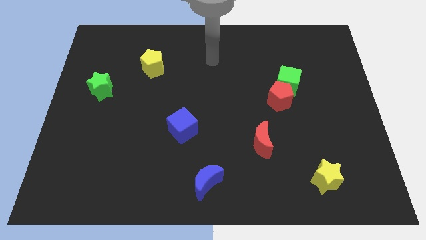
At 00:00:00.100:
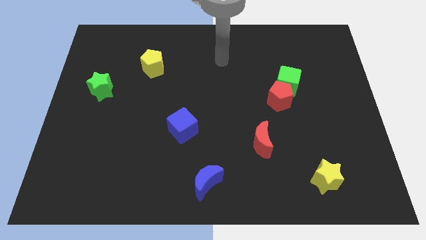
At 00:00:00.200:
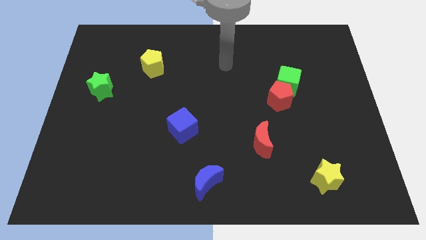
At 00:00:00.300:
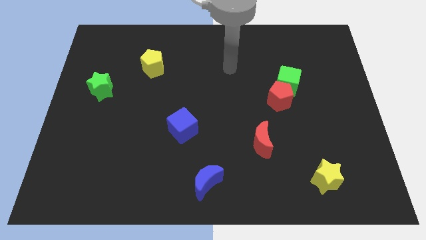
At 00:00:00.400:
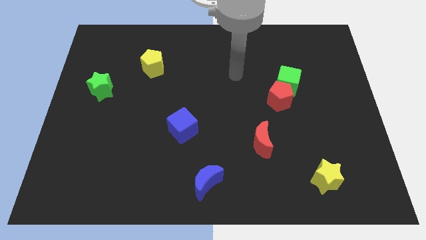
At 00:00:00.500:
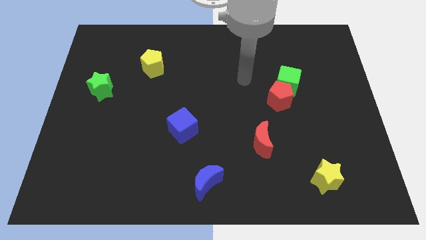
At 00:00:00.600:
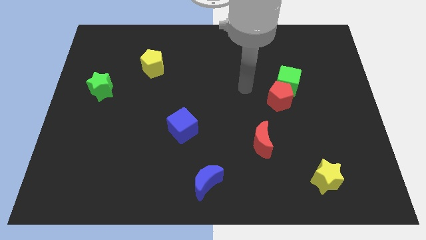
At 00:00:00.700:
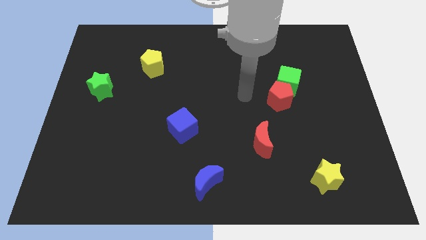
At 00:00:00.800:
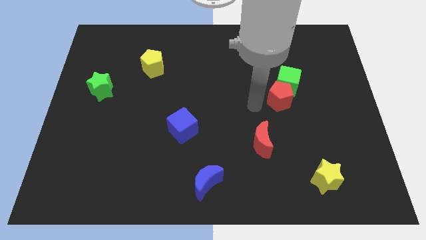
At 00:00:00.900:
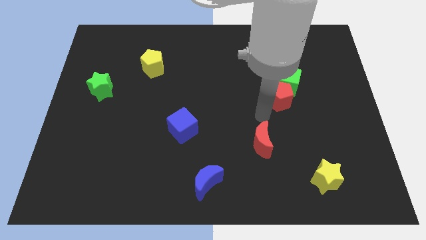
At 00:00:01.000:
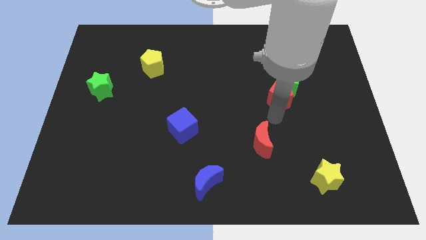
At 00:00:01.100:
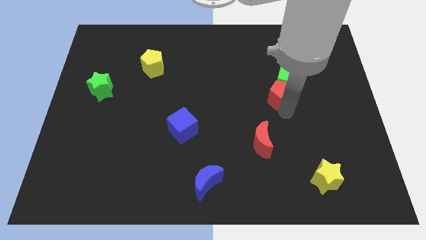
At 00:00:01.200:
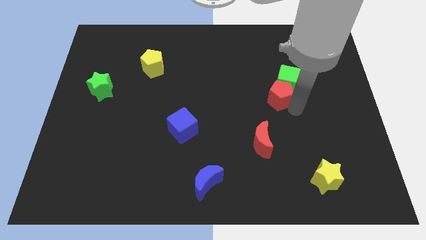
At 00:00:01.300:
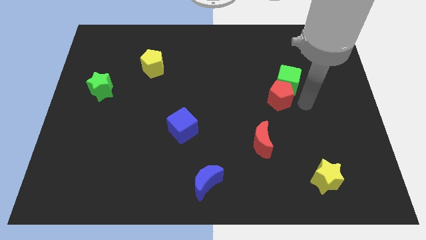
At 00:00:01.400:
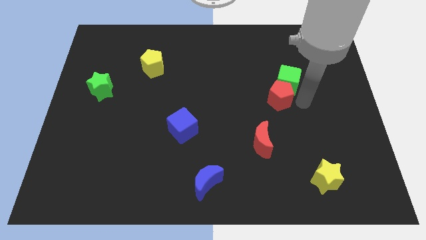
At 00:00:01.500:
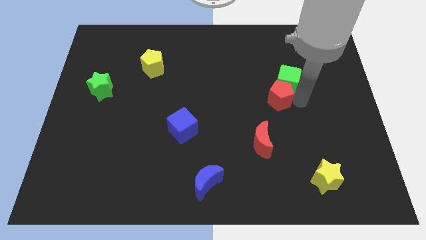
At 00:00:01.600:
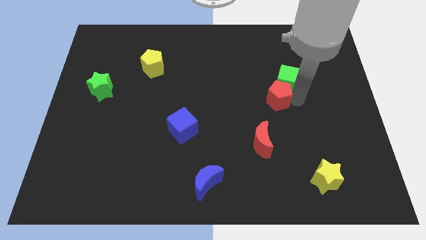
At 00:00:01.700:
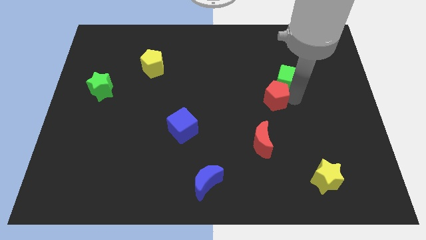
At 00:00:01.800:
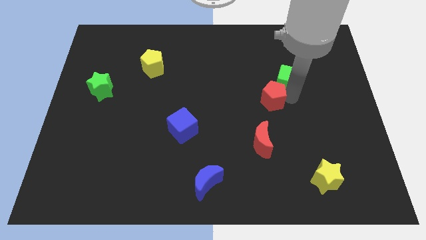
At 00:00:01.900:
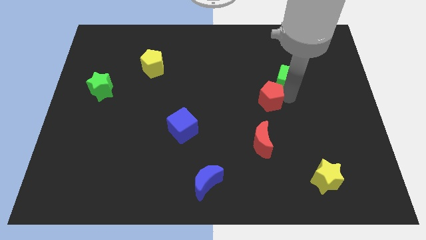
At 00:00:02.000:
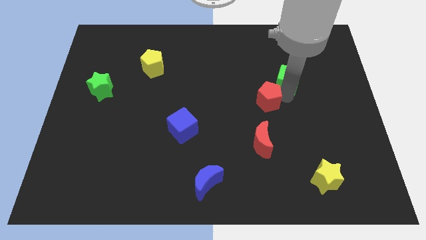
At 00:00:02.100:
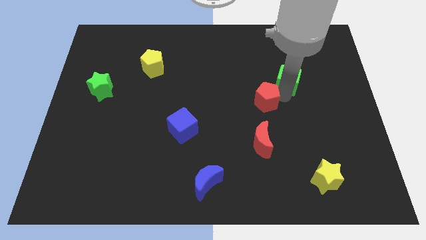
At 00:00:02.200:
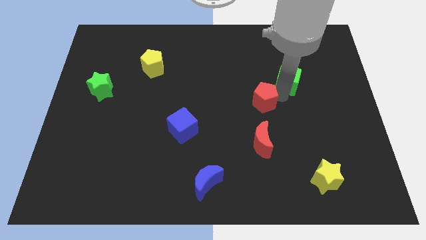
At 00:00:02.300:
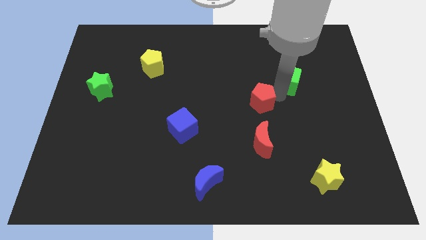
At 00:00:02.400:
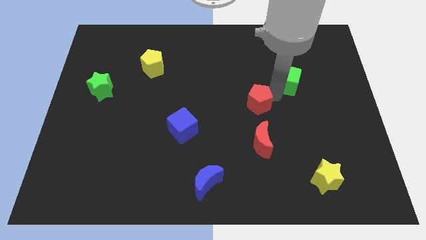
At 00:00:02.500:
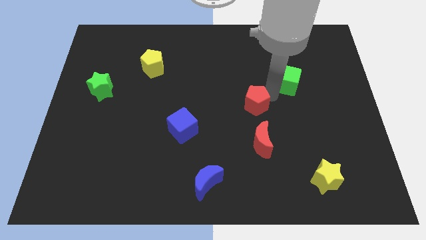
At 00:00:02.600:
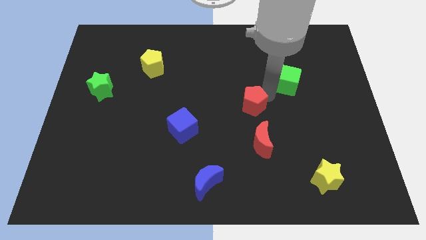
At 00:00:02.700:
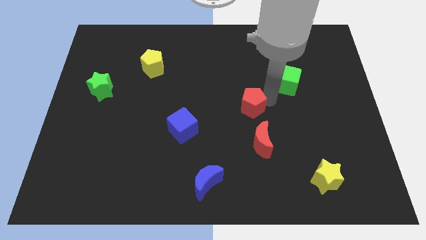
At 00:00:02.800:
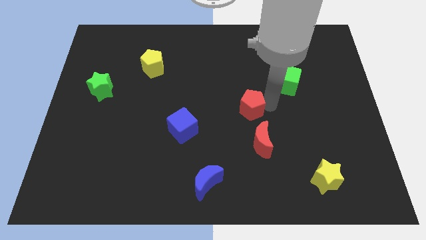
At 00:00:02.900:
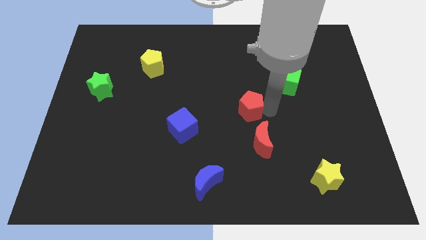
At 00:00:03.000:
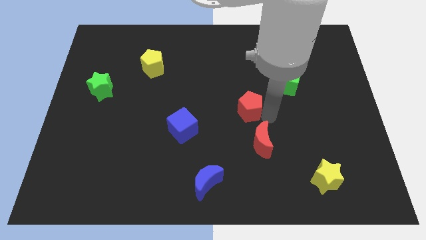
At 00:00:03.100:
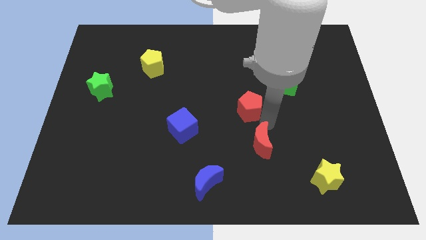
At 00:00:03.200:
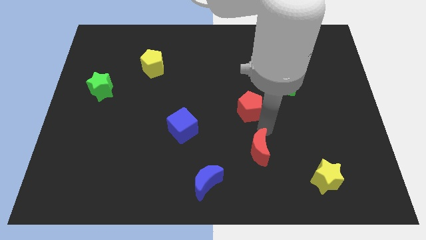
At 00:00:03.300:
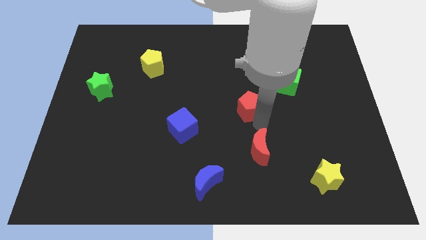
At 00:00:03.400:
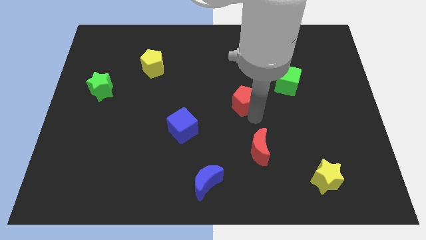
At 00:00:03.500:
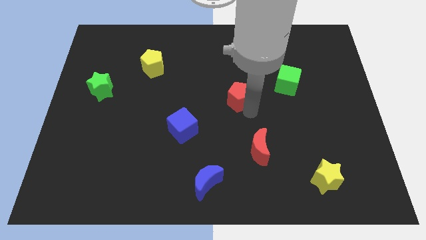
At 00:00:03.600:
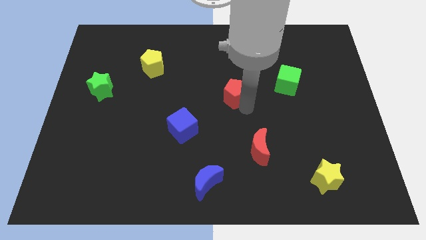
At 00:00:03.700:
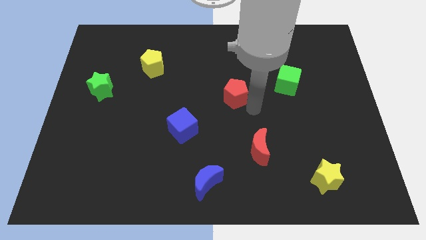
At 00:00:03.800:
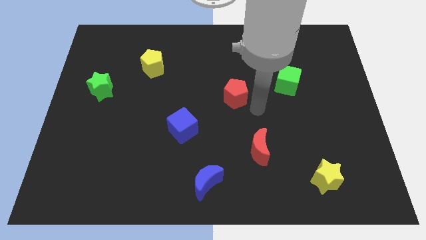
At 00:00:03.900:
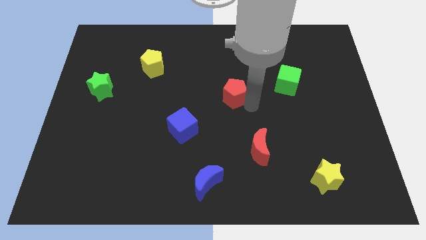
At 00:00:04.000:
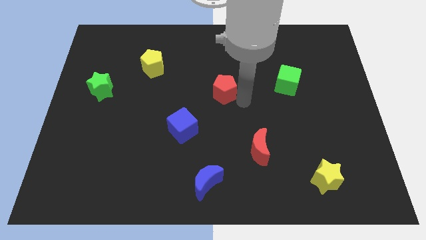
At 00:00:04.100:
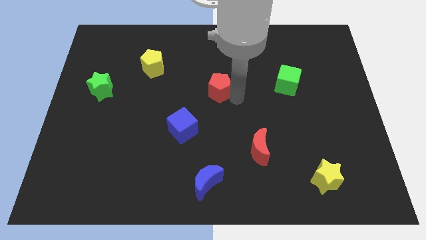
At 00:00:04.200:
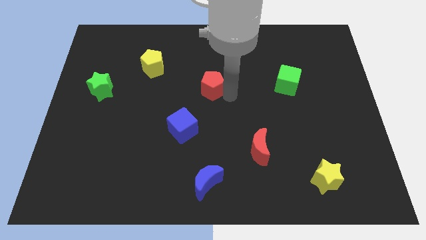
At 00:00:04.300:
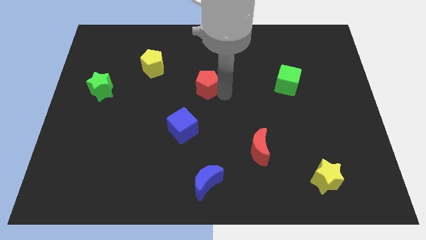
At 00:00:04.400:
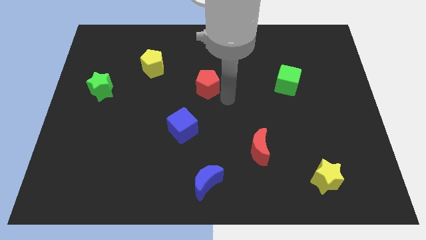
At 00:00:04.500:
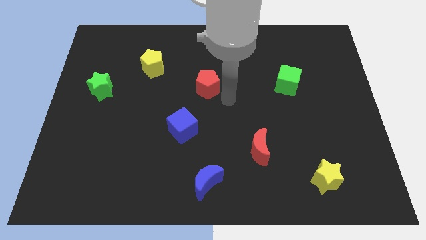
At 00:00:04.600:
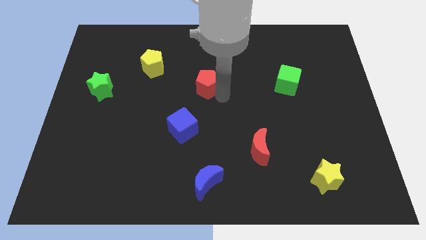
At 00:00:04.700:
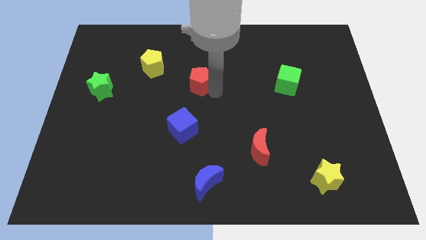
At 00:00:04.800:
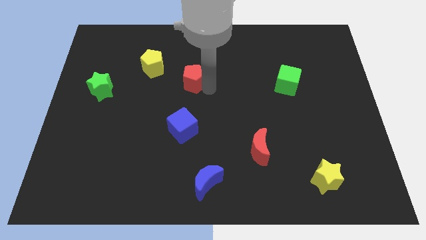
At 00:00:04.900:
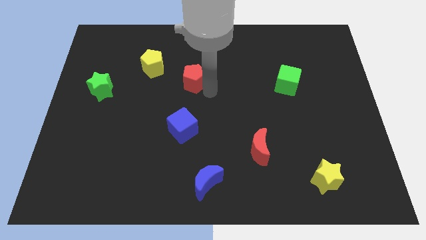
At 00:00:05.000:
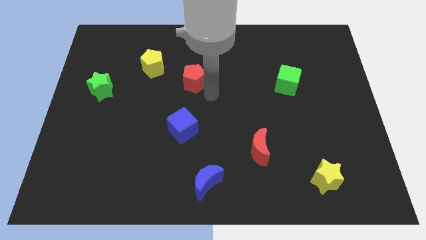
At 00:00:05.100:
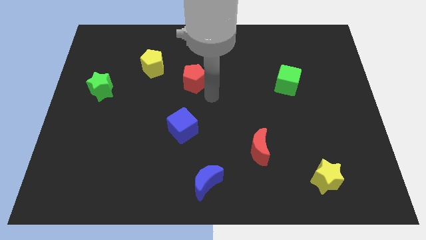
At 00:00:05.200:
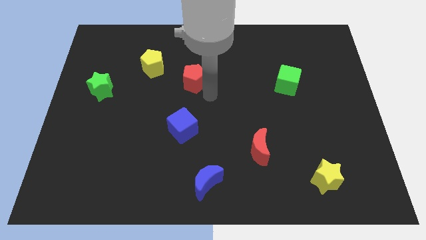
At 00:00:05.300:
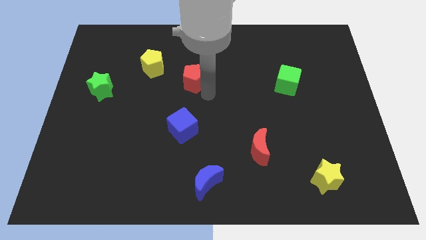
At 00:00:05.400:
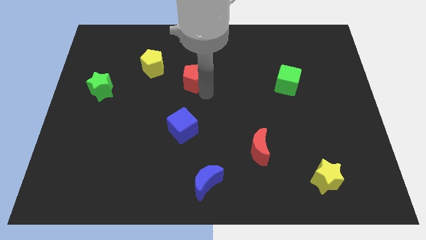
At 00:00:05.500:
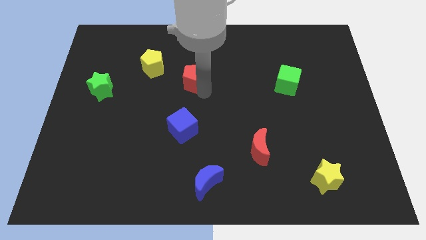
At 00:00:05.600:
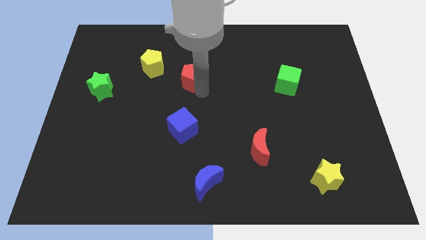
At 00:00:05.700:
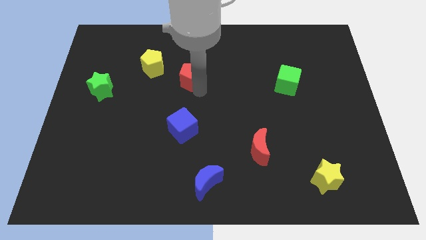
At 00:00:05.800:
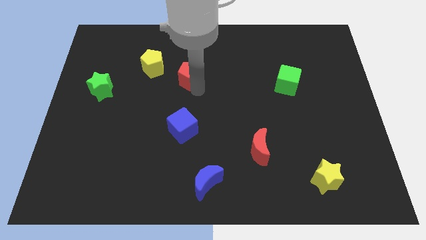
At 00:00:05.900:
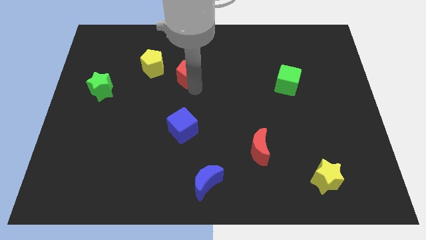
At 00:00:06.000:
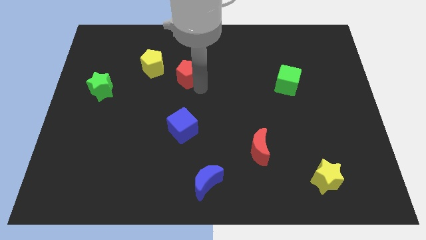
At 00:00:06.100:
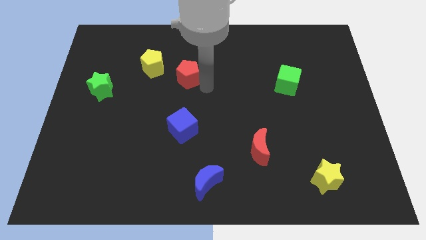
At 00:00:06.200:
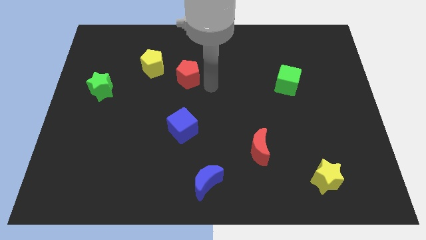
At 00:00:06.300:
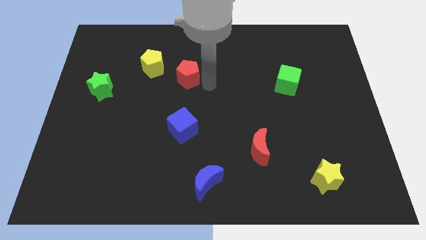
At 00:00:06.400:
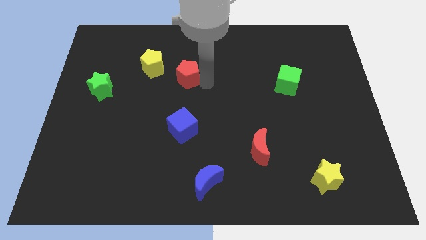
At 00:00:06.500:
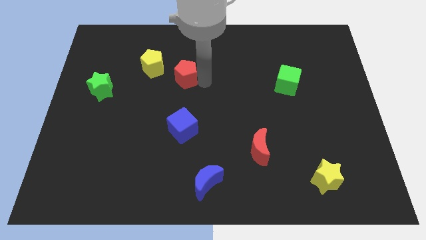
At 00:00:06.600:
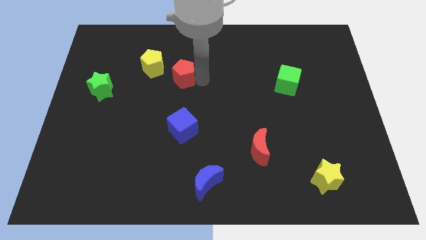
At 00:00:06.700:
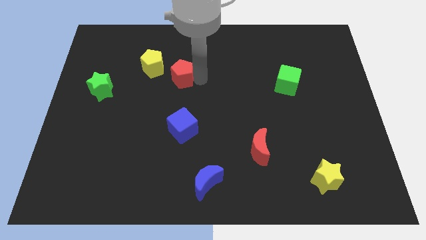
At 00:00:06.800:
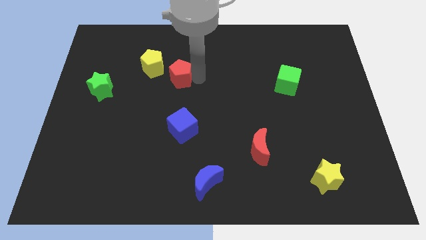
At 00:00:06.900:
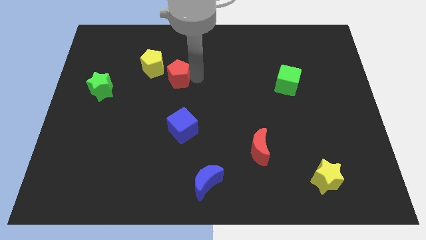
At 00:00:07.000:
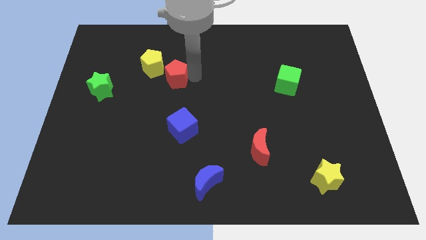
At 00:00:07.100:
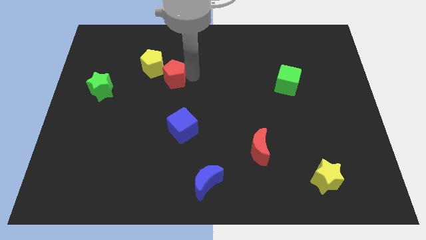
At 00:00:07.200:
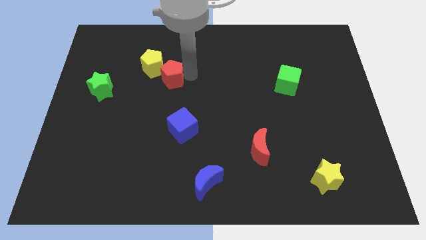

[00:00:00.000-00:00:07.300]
put the red pentagon towards the yellow pentagon

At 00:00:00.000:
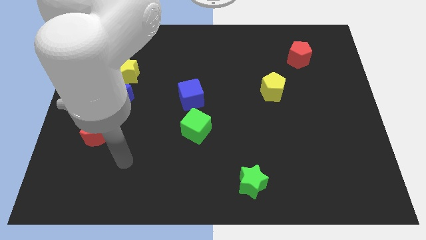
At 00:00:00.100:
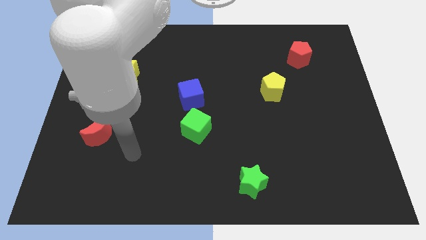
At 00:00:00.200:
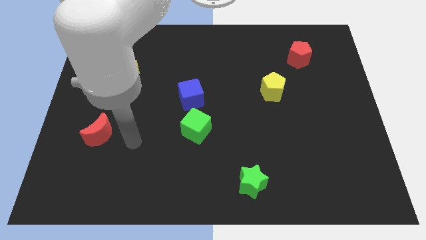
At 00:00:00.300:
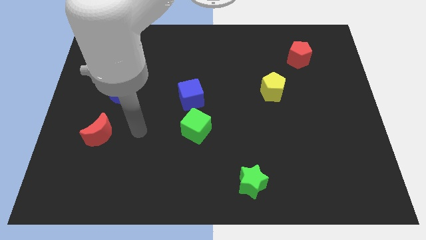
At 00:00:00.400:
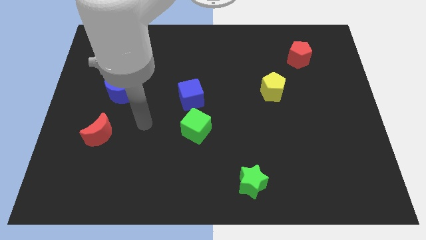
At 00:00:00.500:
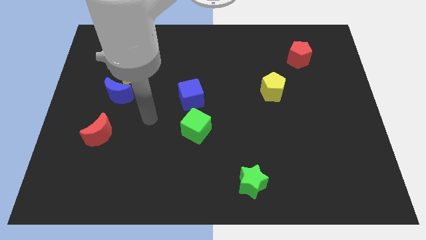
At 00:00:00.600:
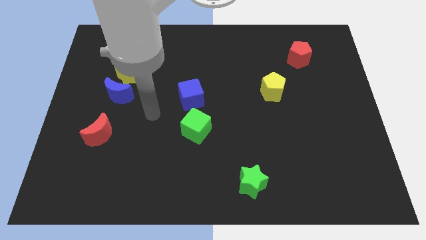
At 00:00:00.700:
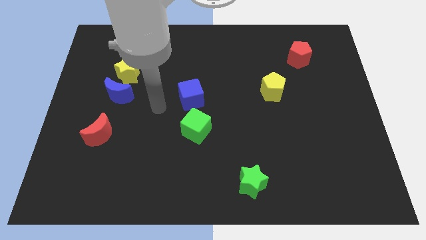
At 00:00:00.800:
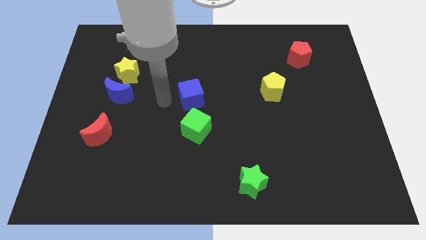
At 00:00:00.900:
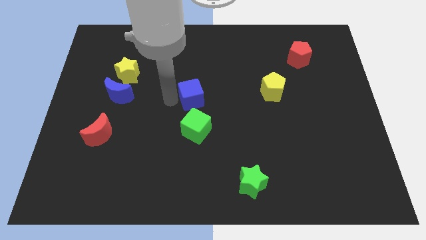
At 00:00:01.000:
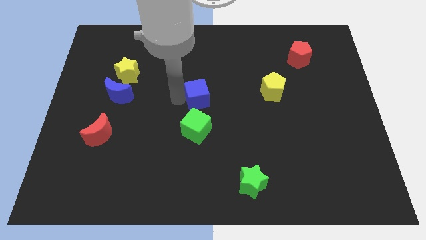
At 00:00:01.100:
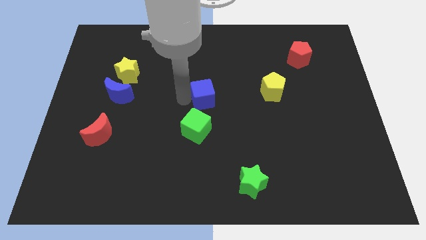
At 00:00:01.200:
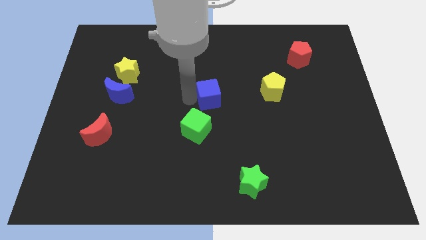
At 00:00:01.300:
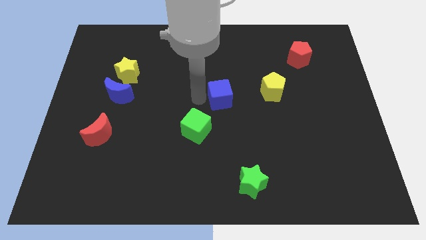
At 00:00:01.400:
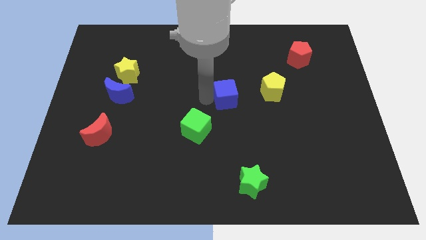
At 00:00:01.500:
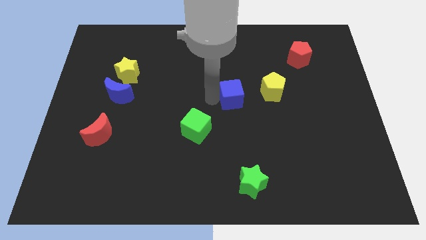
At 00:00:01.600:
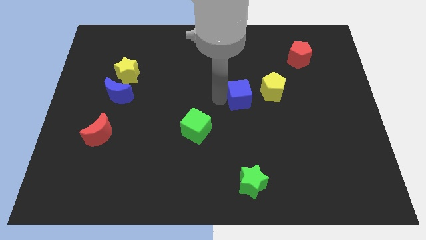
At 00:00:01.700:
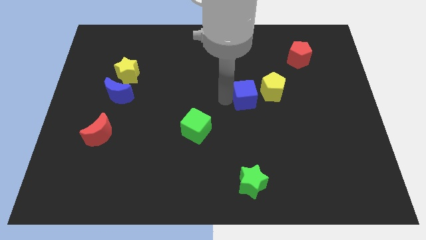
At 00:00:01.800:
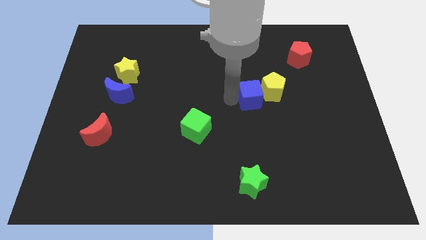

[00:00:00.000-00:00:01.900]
slide the blue cube to the yellow pentagon
